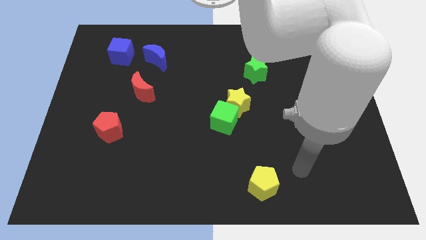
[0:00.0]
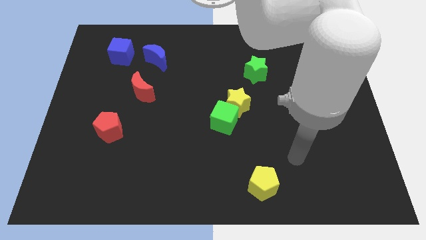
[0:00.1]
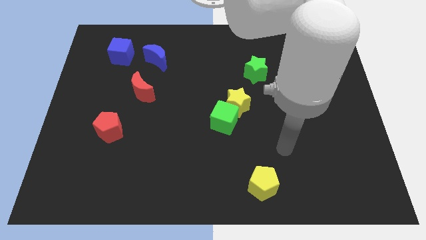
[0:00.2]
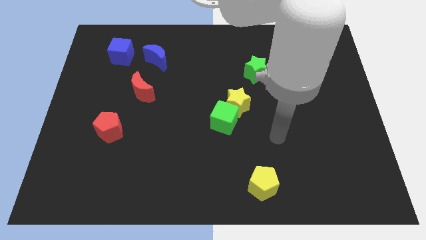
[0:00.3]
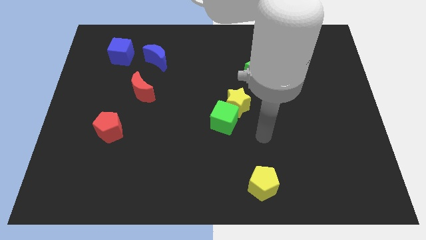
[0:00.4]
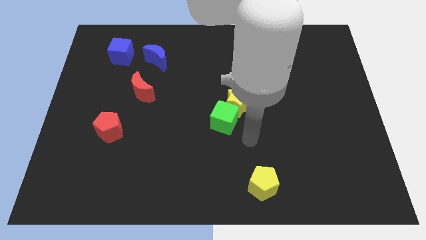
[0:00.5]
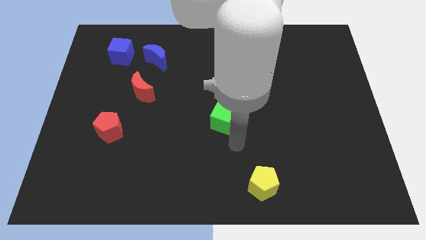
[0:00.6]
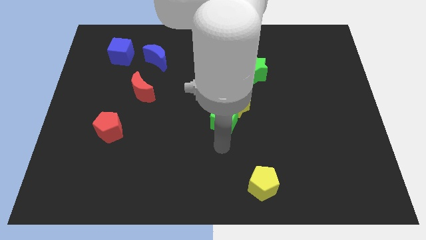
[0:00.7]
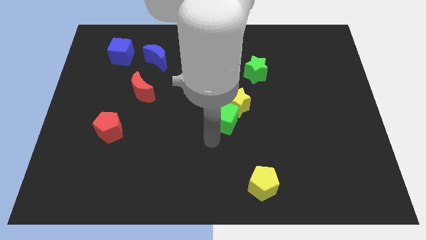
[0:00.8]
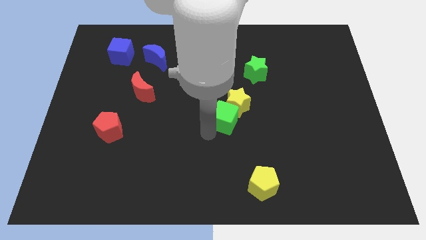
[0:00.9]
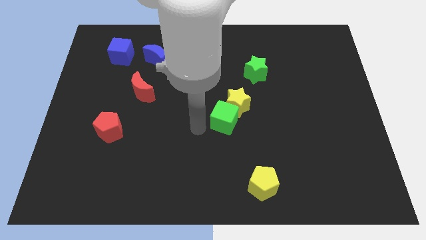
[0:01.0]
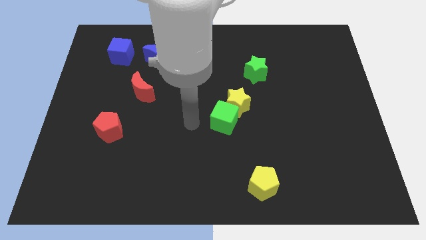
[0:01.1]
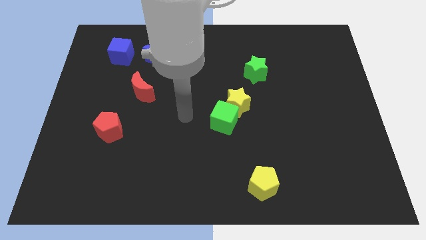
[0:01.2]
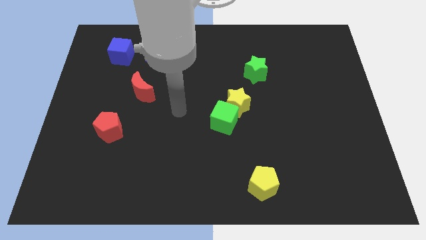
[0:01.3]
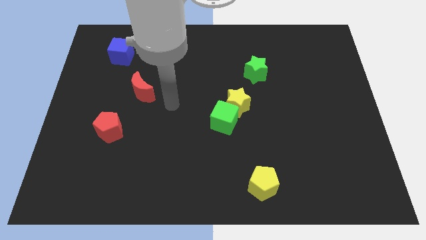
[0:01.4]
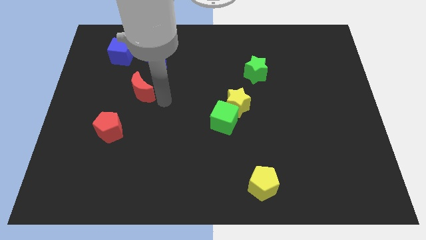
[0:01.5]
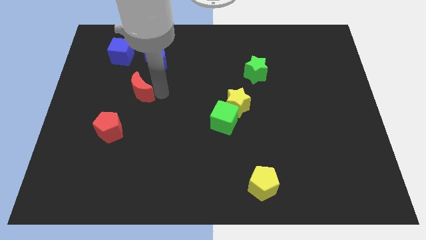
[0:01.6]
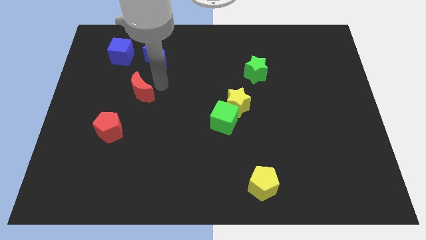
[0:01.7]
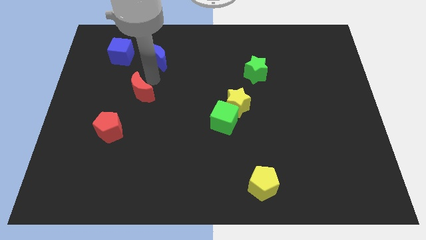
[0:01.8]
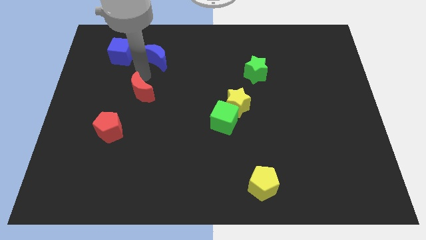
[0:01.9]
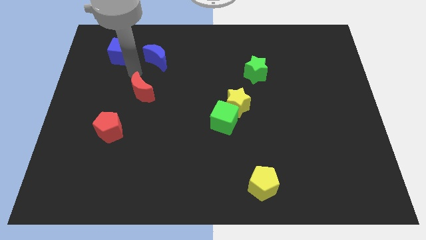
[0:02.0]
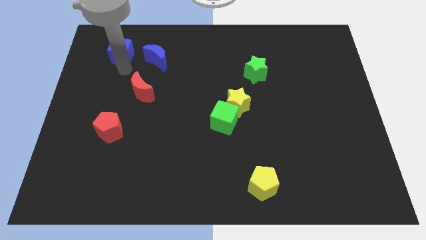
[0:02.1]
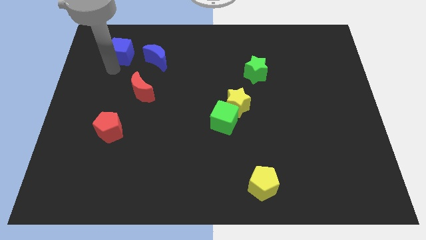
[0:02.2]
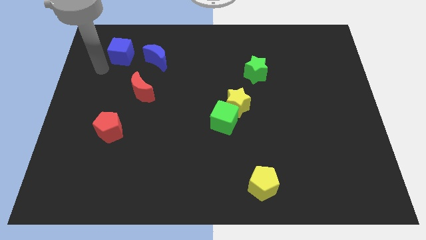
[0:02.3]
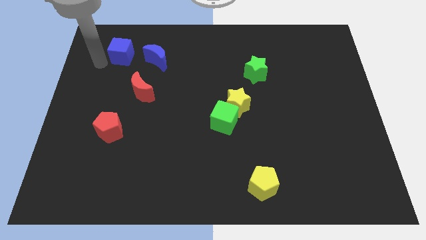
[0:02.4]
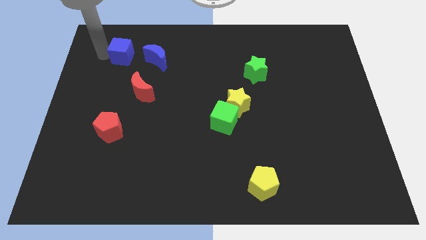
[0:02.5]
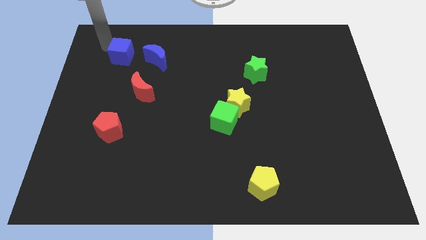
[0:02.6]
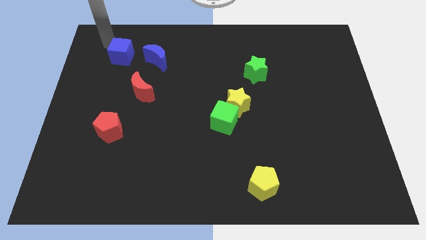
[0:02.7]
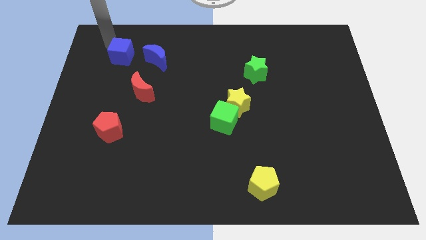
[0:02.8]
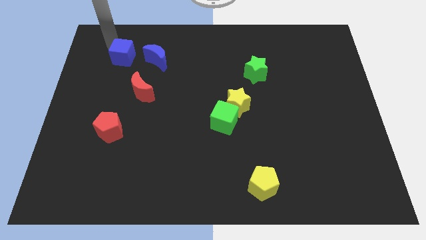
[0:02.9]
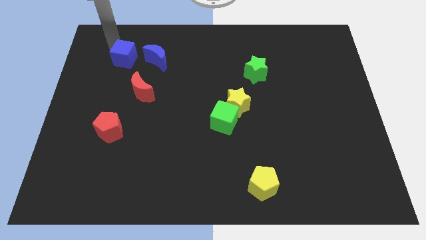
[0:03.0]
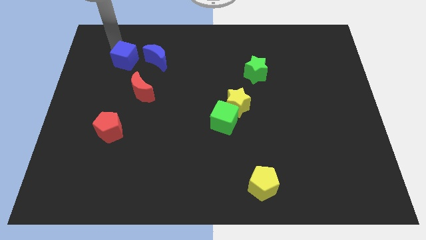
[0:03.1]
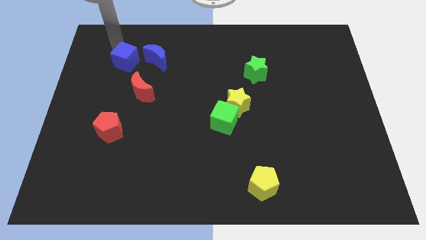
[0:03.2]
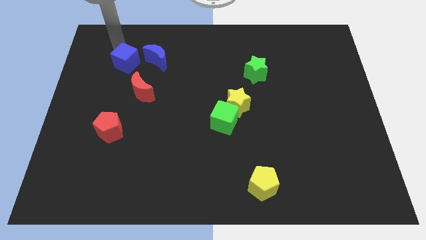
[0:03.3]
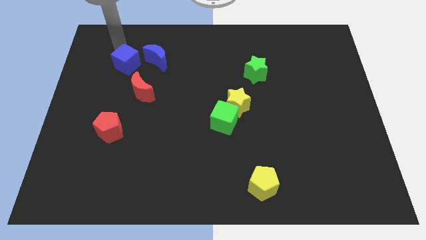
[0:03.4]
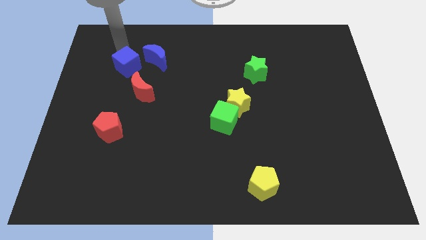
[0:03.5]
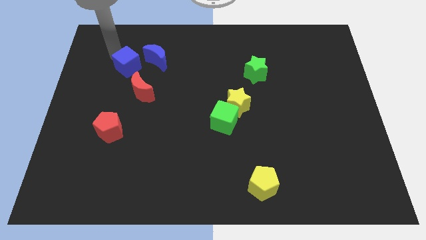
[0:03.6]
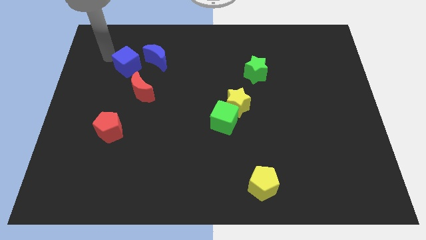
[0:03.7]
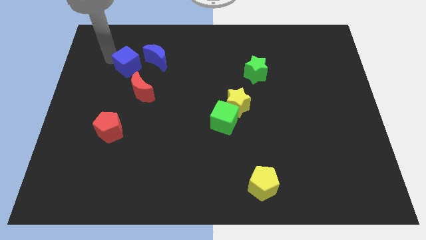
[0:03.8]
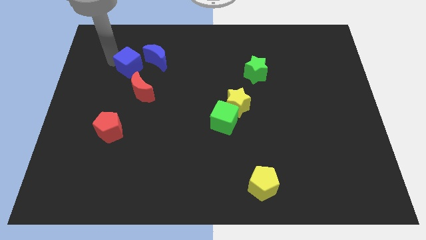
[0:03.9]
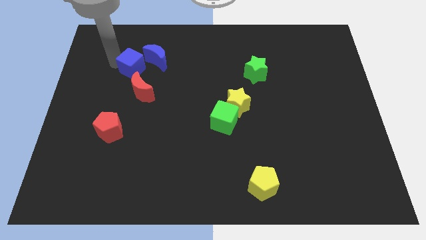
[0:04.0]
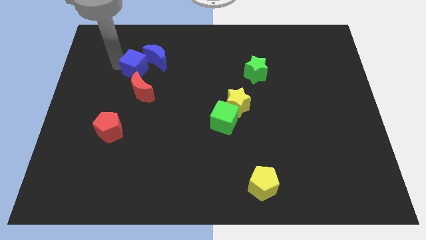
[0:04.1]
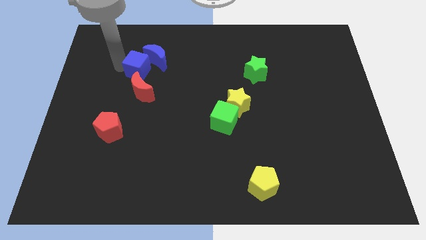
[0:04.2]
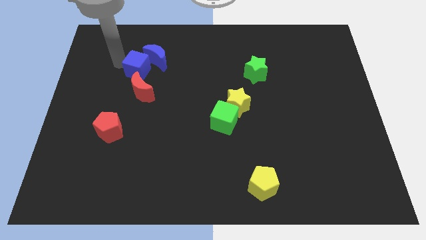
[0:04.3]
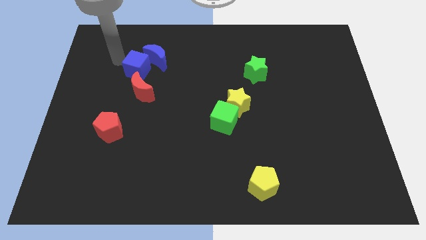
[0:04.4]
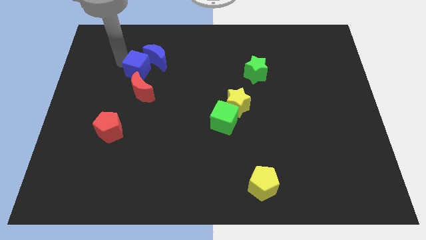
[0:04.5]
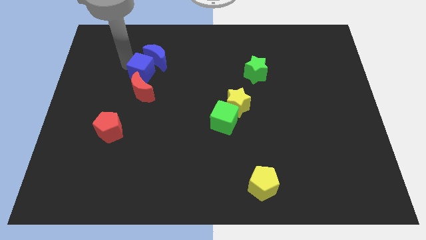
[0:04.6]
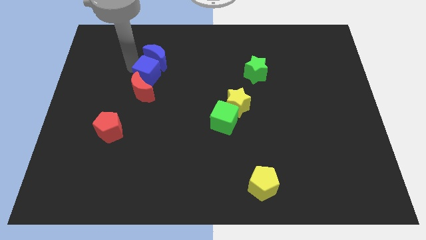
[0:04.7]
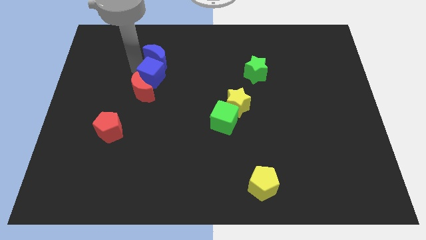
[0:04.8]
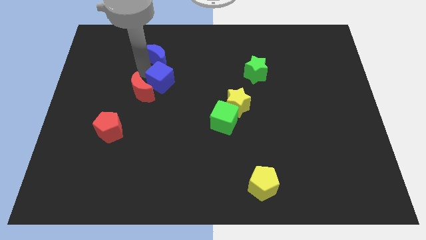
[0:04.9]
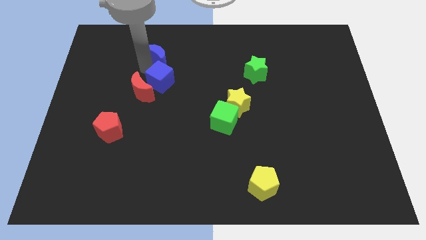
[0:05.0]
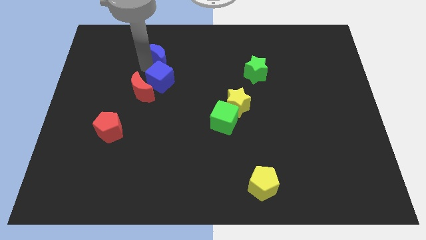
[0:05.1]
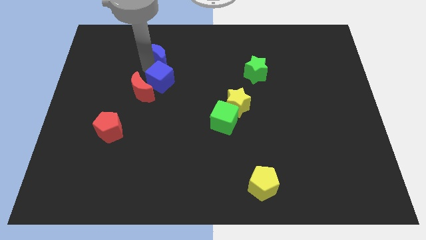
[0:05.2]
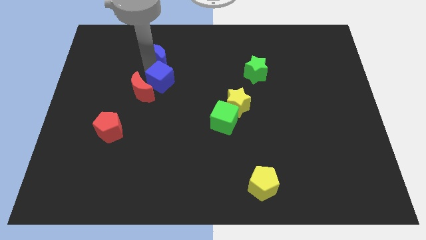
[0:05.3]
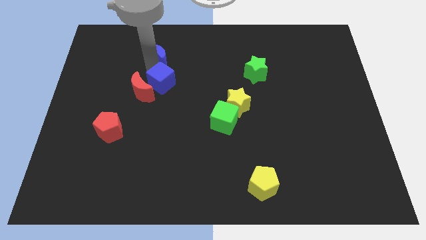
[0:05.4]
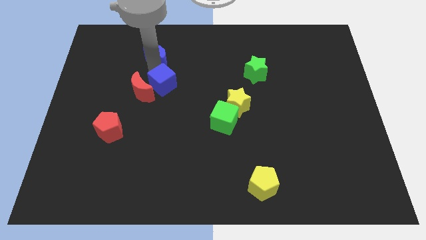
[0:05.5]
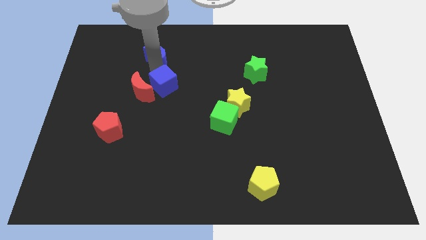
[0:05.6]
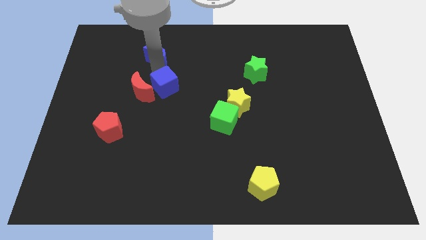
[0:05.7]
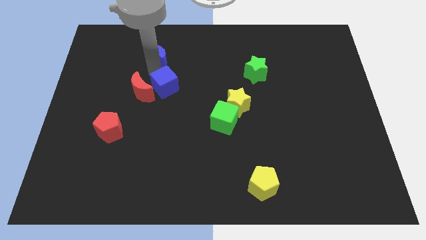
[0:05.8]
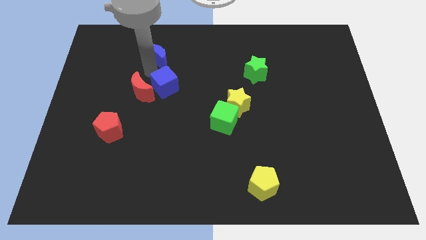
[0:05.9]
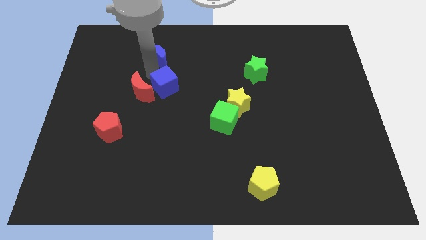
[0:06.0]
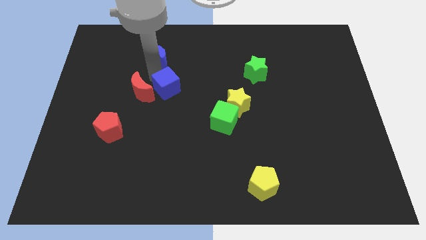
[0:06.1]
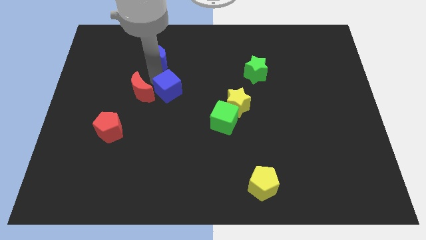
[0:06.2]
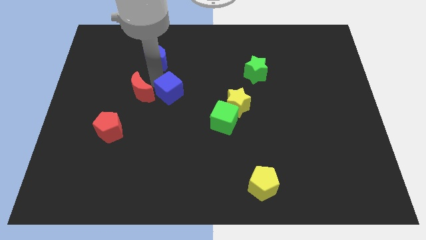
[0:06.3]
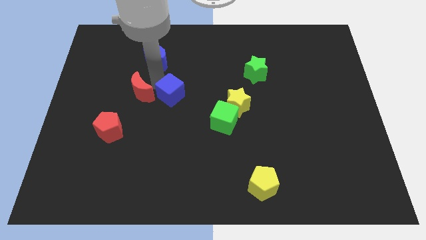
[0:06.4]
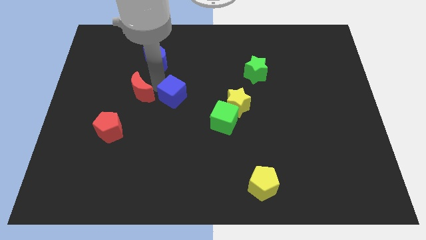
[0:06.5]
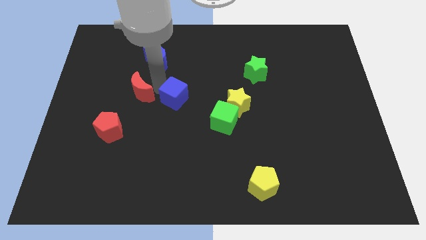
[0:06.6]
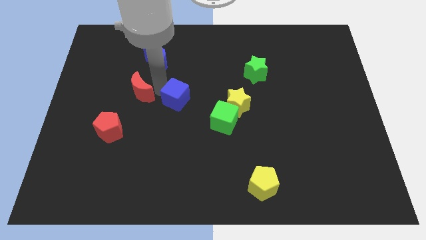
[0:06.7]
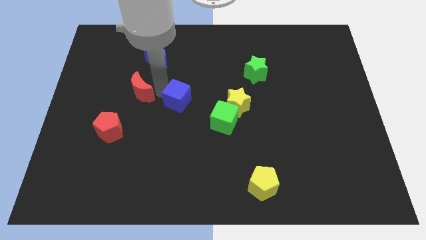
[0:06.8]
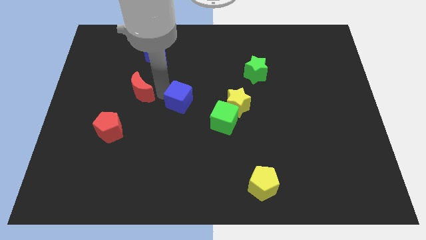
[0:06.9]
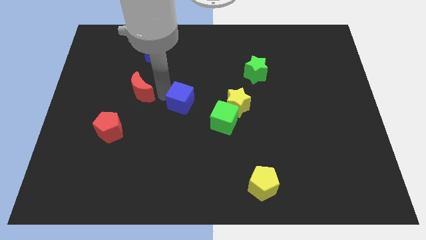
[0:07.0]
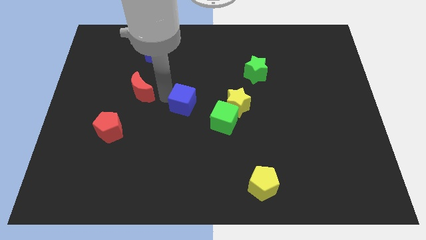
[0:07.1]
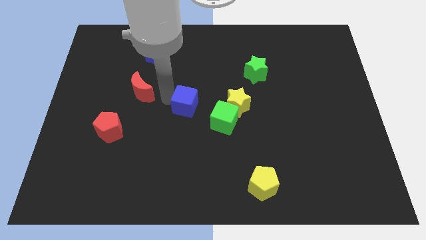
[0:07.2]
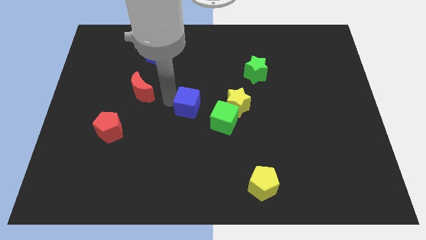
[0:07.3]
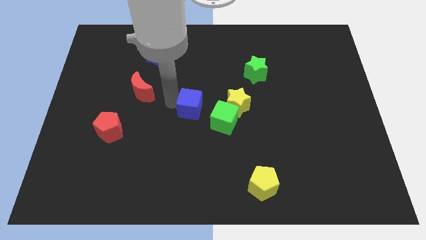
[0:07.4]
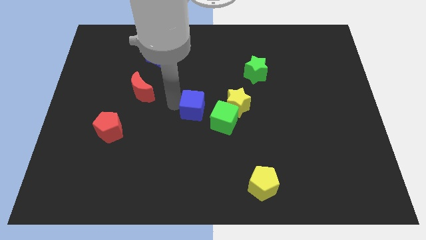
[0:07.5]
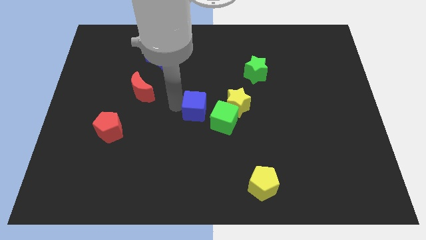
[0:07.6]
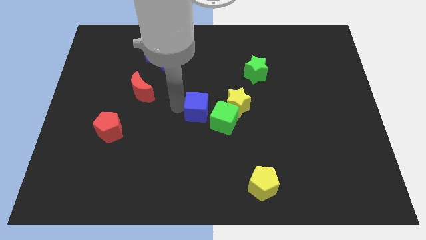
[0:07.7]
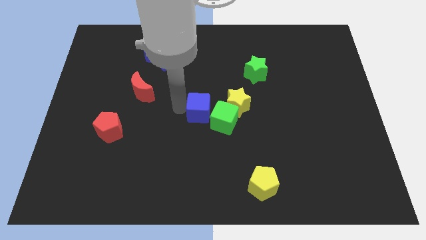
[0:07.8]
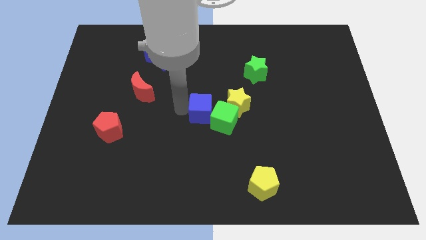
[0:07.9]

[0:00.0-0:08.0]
slide the blue cube next to the green cube
